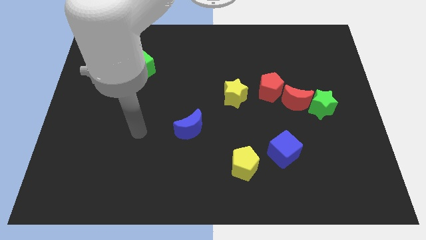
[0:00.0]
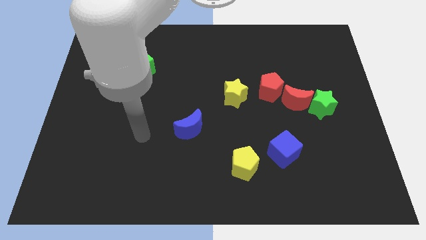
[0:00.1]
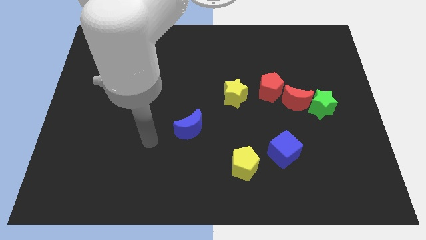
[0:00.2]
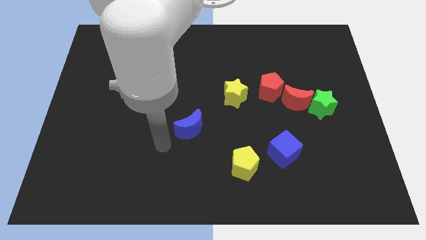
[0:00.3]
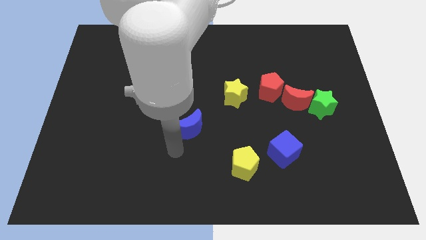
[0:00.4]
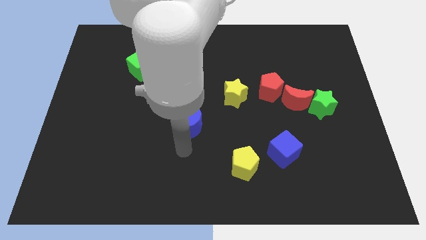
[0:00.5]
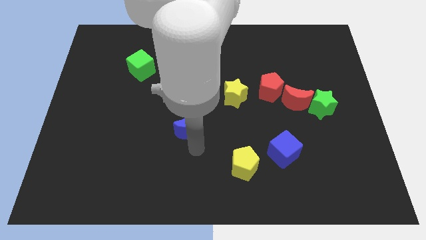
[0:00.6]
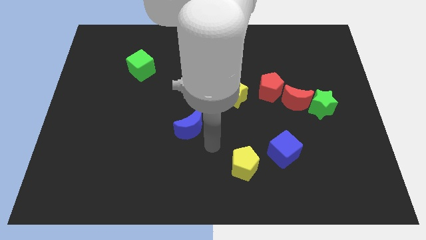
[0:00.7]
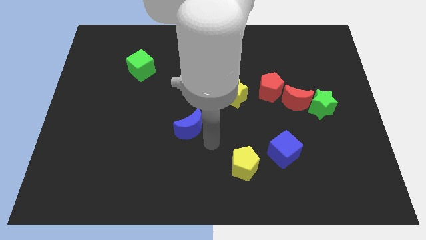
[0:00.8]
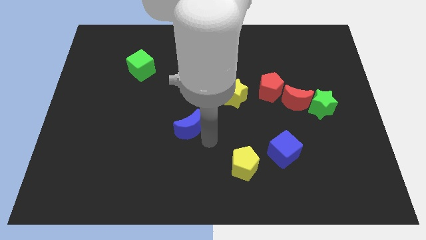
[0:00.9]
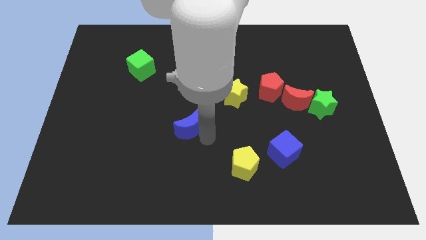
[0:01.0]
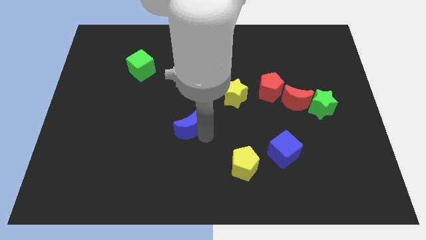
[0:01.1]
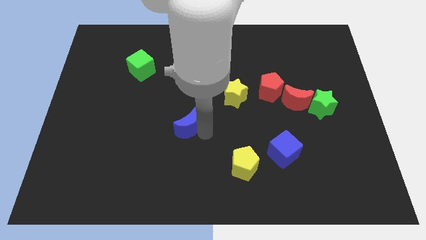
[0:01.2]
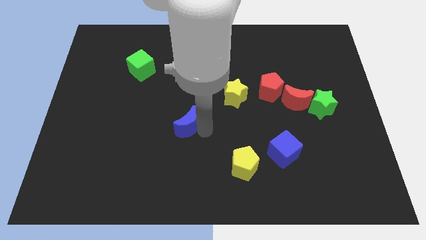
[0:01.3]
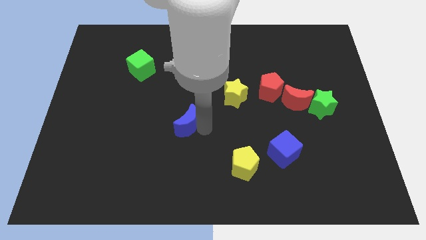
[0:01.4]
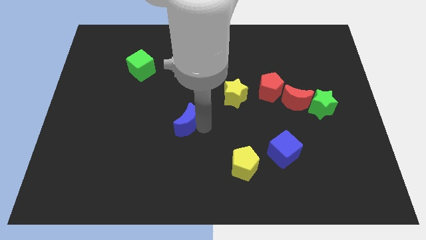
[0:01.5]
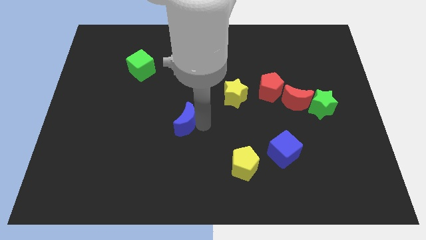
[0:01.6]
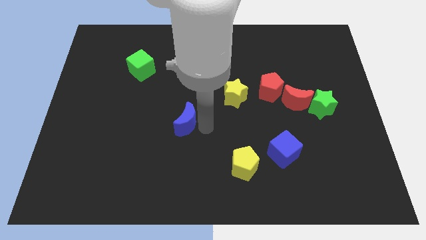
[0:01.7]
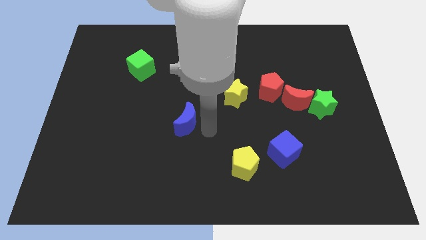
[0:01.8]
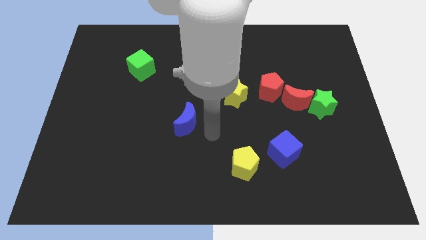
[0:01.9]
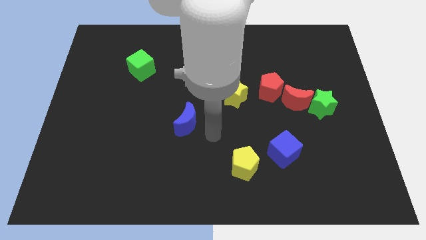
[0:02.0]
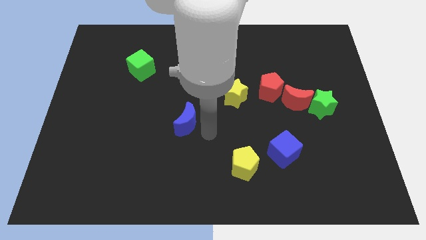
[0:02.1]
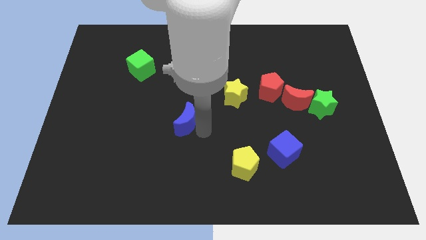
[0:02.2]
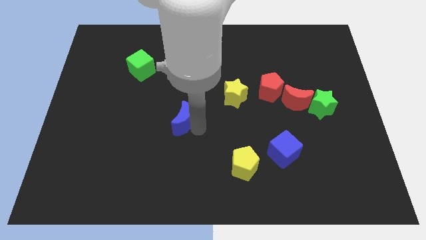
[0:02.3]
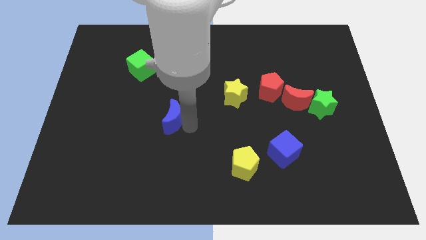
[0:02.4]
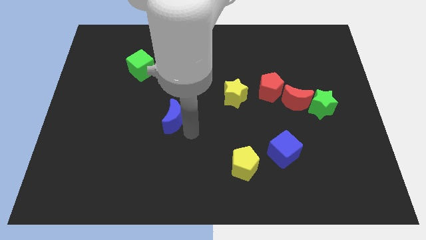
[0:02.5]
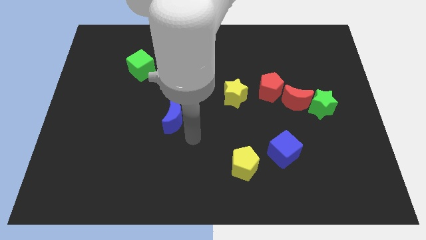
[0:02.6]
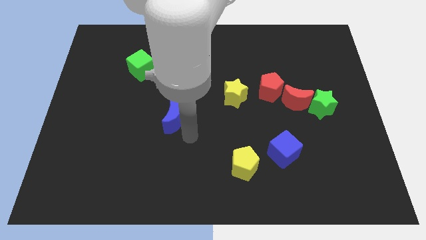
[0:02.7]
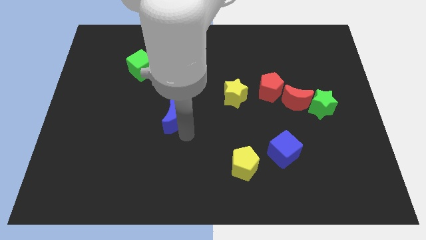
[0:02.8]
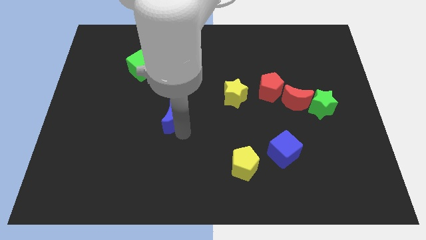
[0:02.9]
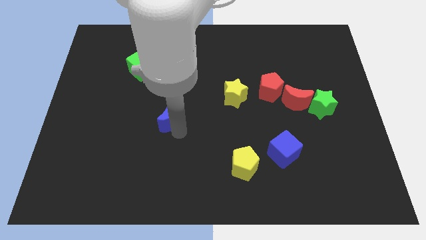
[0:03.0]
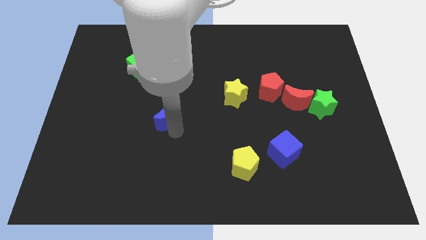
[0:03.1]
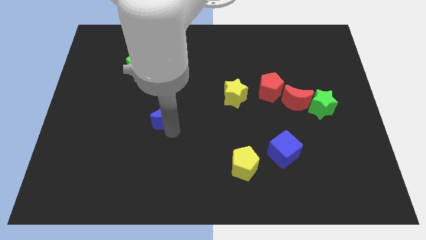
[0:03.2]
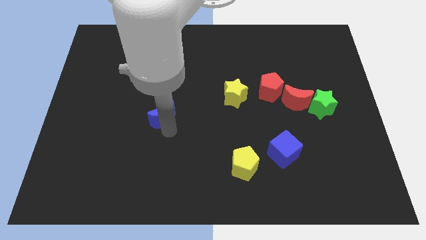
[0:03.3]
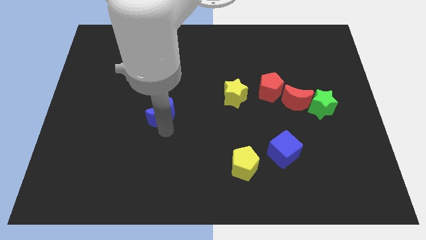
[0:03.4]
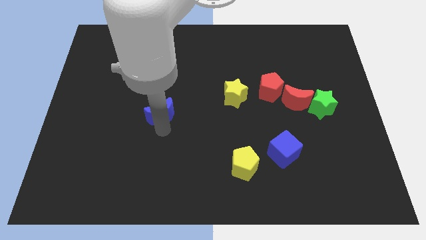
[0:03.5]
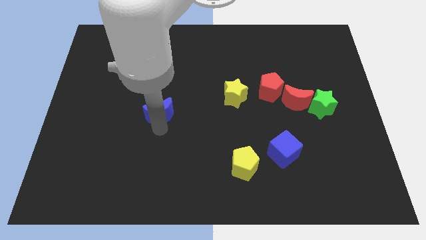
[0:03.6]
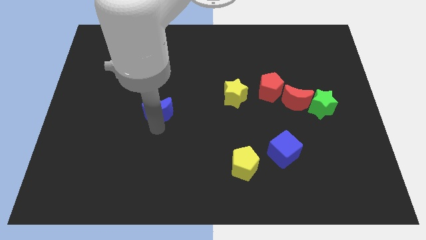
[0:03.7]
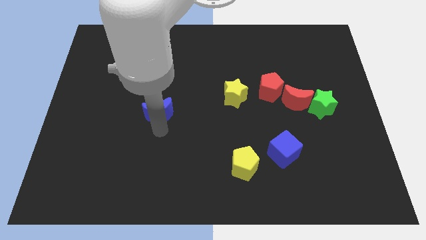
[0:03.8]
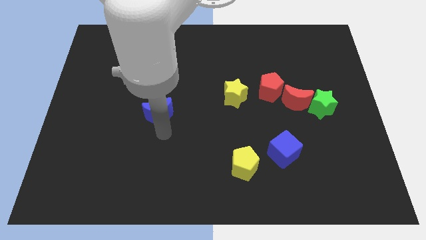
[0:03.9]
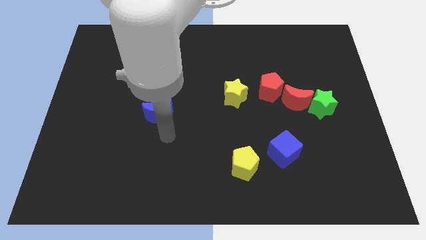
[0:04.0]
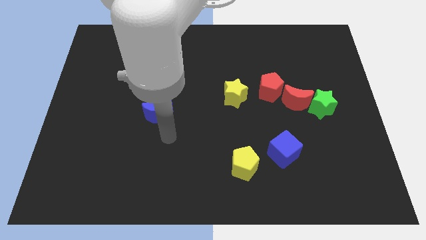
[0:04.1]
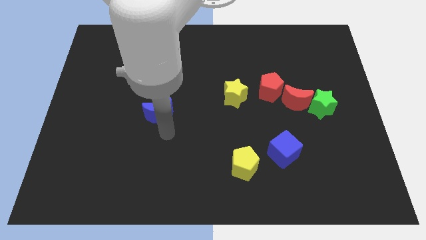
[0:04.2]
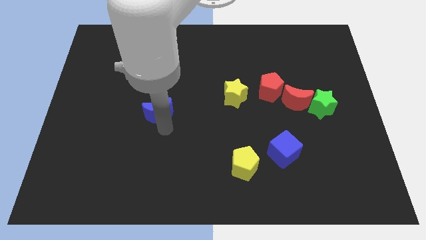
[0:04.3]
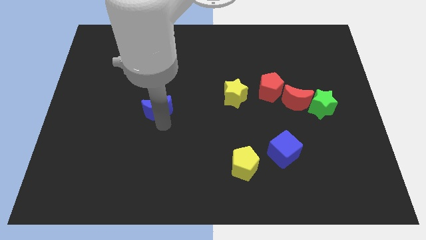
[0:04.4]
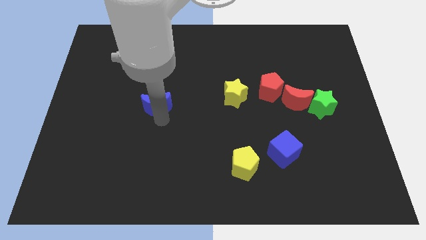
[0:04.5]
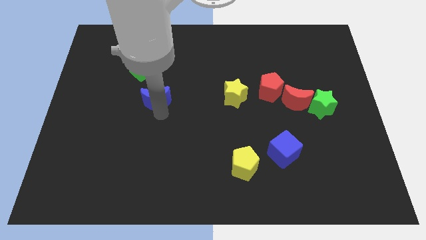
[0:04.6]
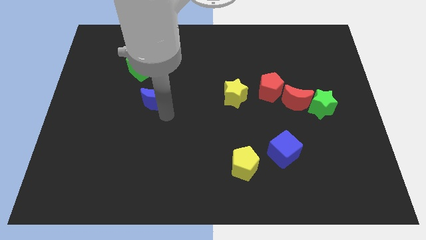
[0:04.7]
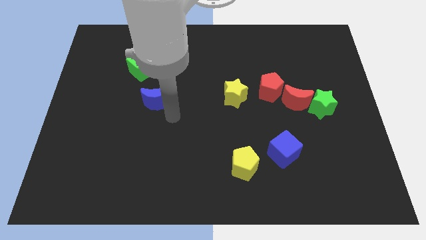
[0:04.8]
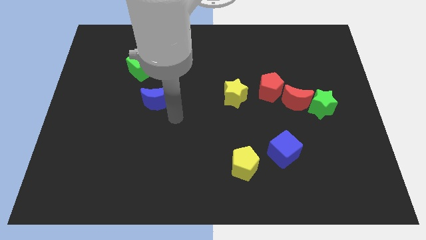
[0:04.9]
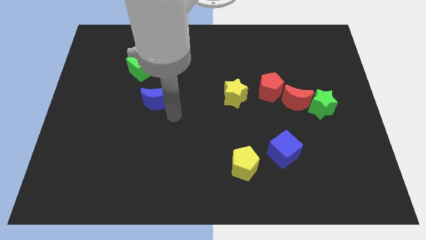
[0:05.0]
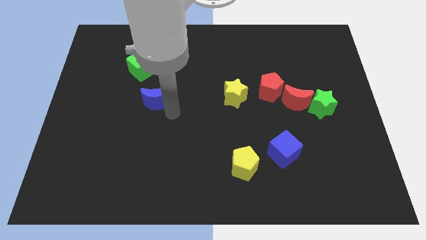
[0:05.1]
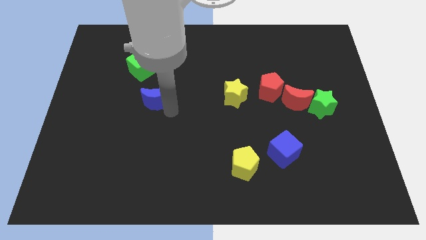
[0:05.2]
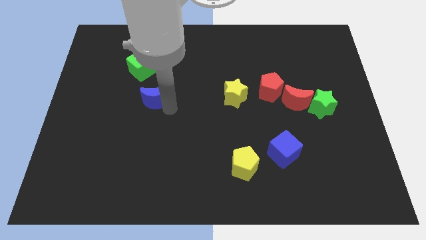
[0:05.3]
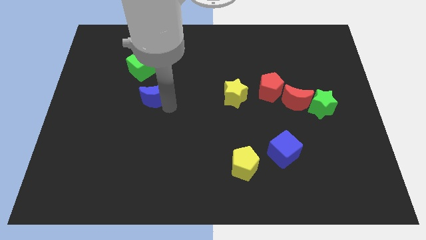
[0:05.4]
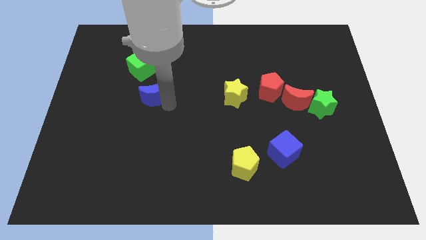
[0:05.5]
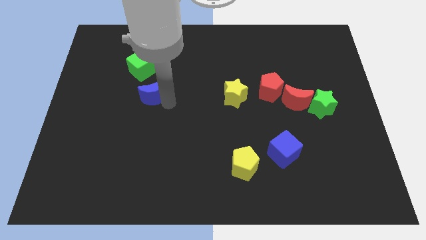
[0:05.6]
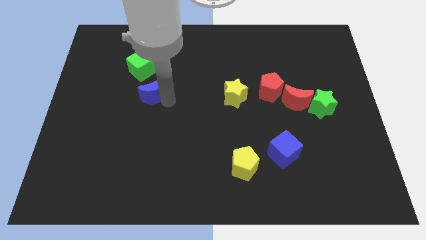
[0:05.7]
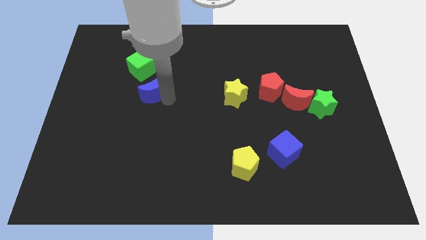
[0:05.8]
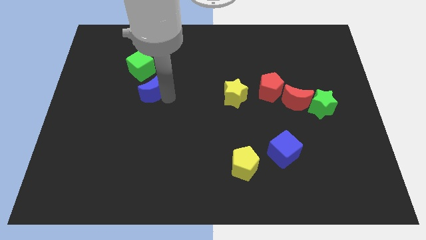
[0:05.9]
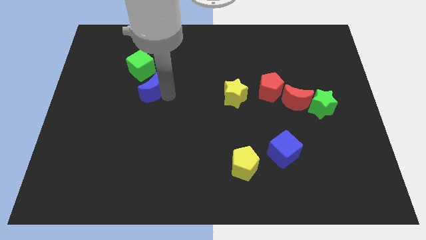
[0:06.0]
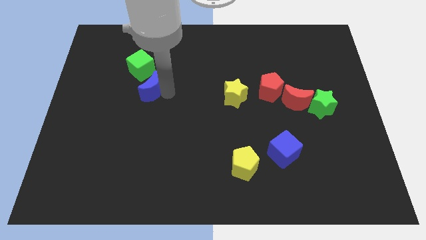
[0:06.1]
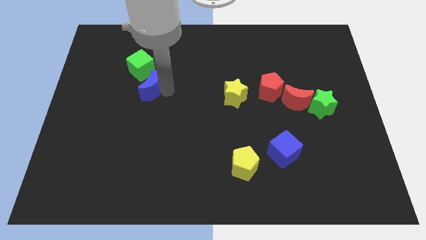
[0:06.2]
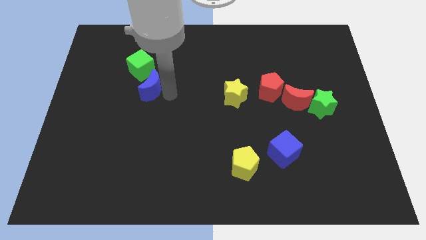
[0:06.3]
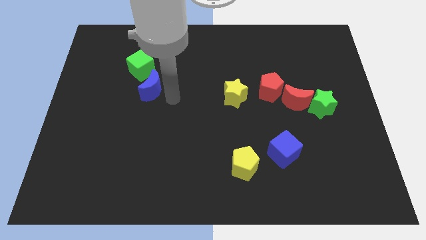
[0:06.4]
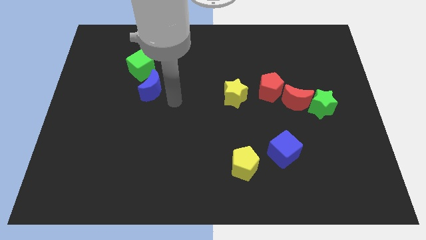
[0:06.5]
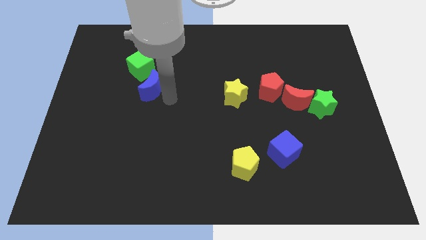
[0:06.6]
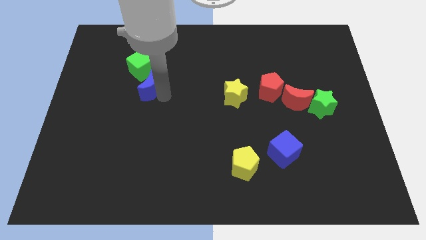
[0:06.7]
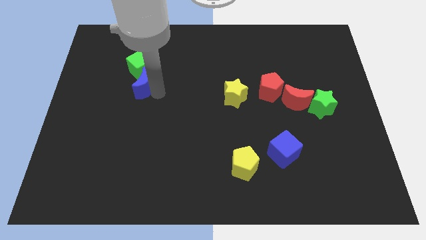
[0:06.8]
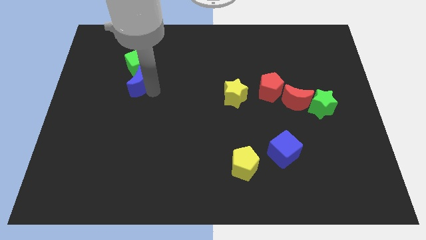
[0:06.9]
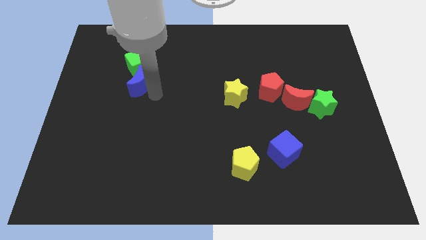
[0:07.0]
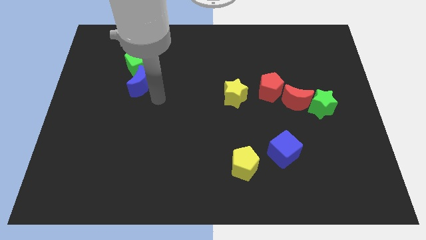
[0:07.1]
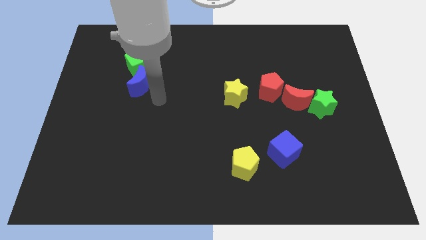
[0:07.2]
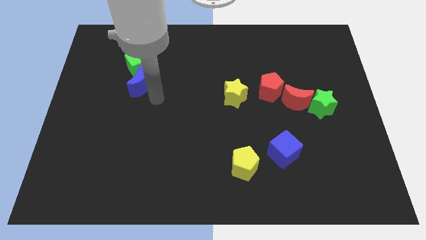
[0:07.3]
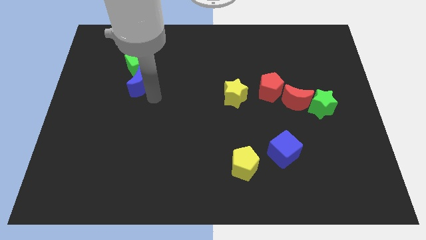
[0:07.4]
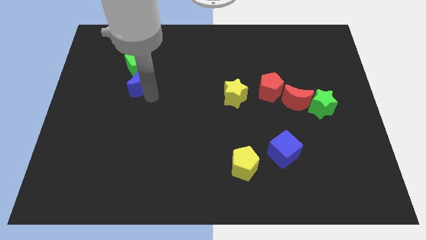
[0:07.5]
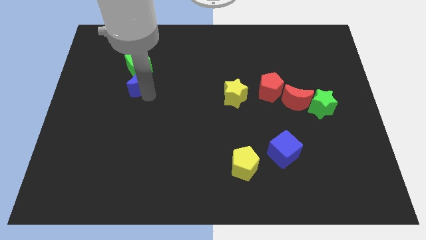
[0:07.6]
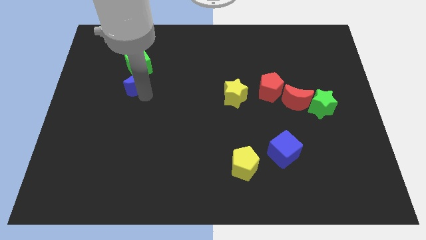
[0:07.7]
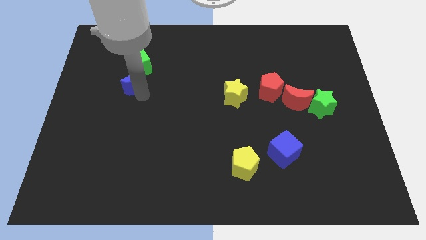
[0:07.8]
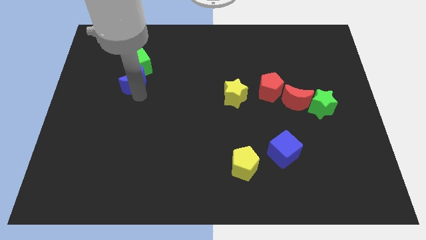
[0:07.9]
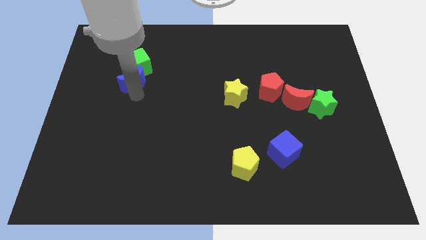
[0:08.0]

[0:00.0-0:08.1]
push the blue moon up and left
